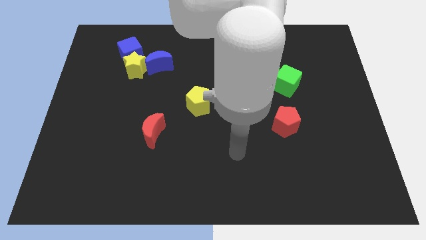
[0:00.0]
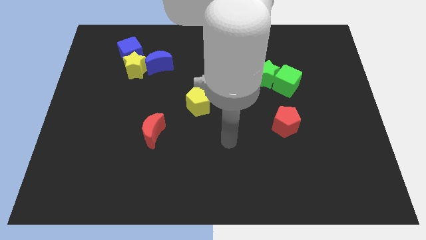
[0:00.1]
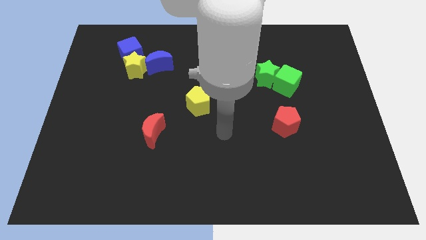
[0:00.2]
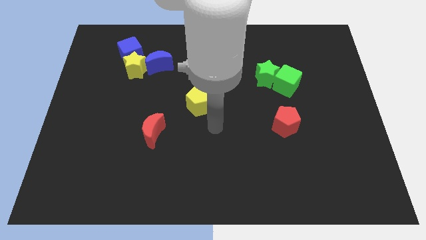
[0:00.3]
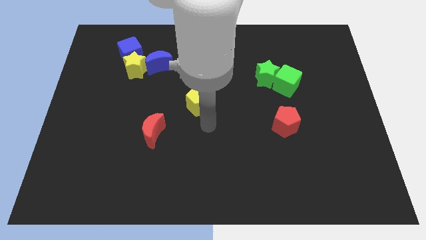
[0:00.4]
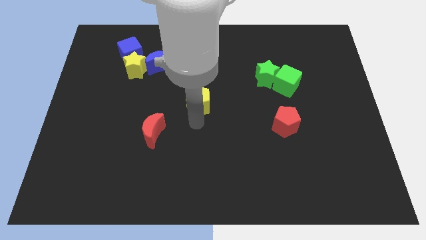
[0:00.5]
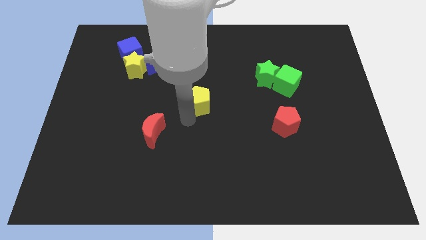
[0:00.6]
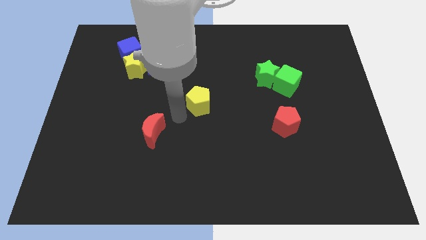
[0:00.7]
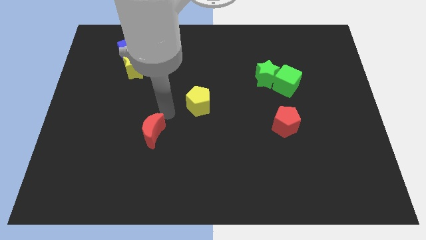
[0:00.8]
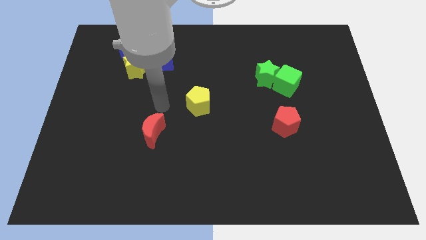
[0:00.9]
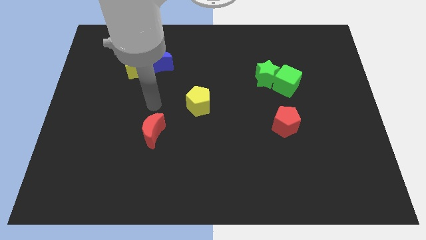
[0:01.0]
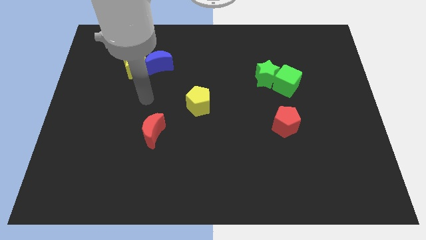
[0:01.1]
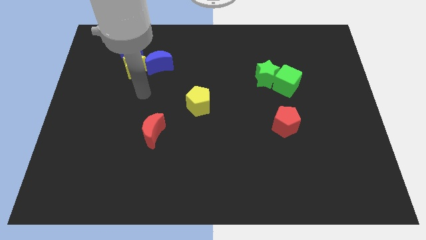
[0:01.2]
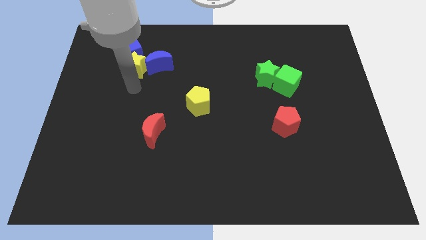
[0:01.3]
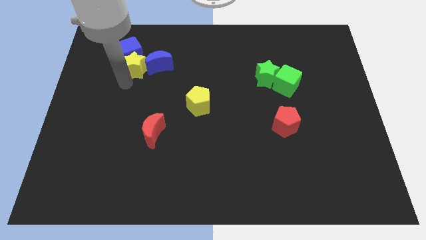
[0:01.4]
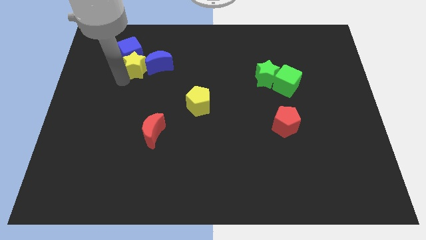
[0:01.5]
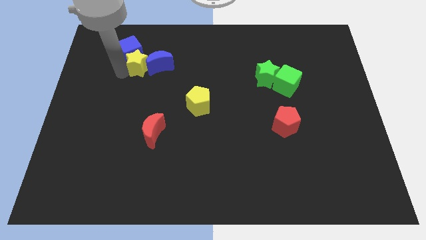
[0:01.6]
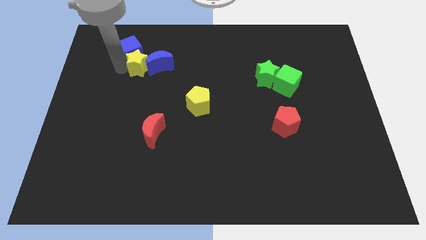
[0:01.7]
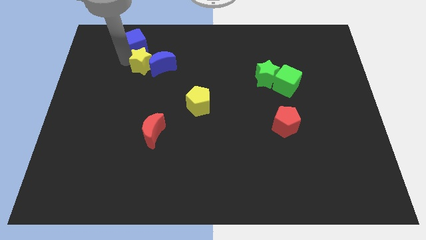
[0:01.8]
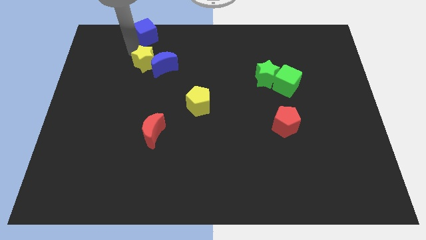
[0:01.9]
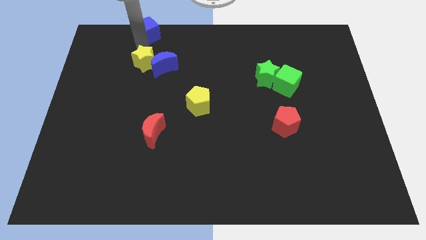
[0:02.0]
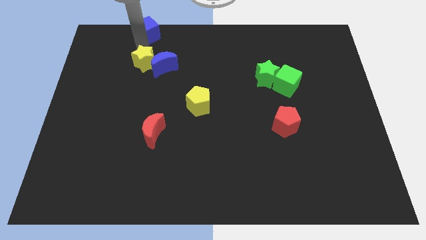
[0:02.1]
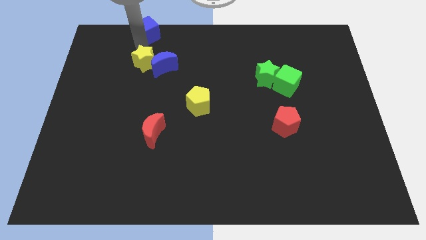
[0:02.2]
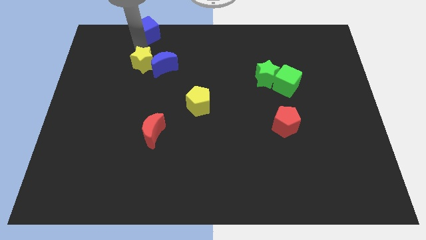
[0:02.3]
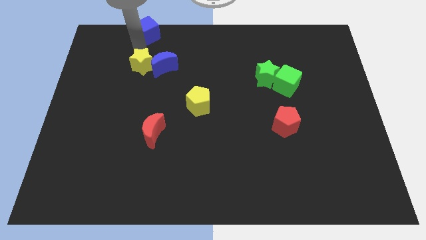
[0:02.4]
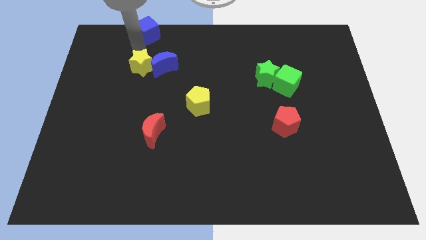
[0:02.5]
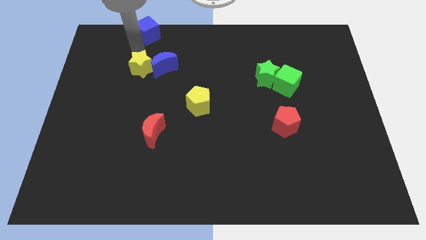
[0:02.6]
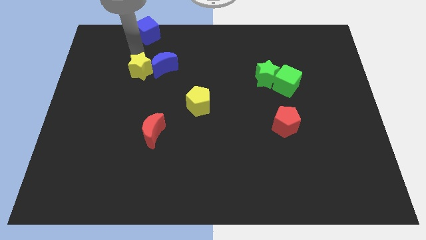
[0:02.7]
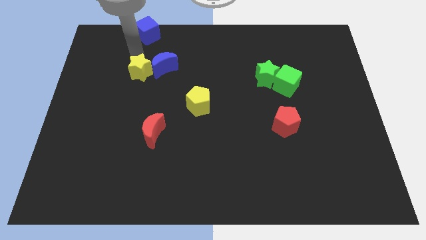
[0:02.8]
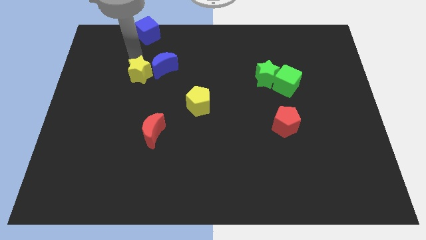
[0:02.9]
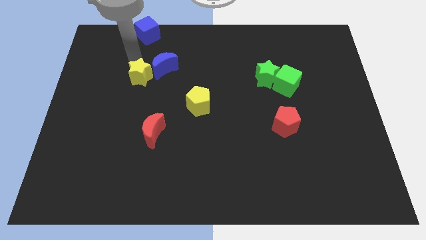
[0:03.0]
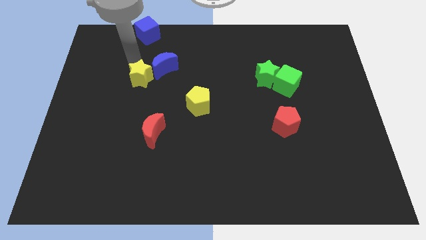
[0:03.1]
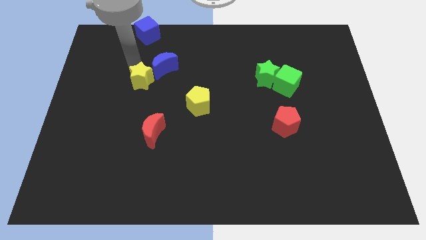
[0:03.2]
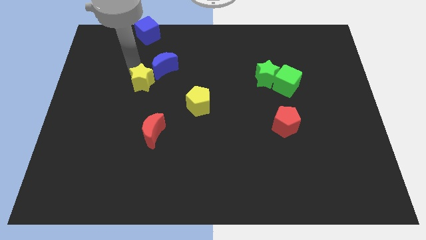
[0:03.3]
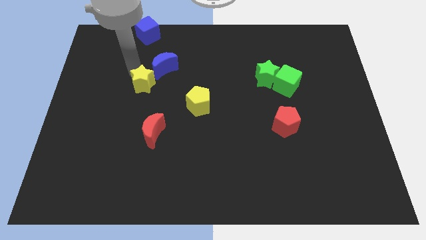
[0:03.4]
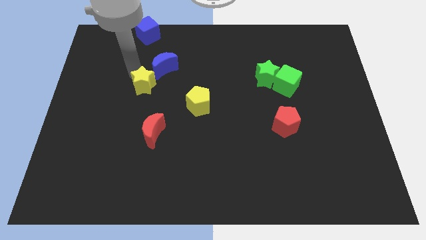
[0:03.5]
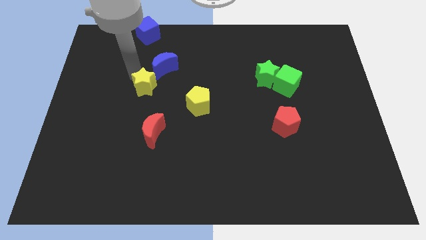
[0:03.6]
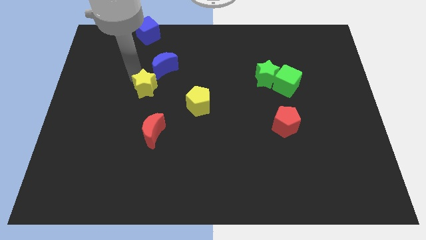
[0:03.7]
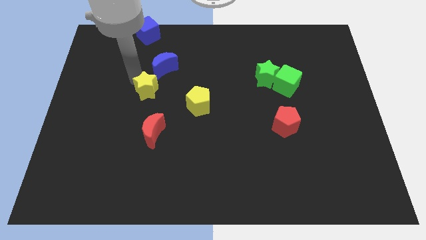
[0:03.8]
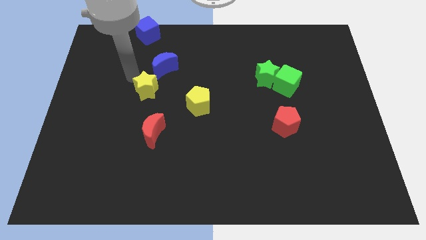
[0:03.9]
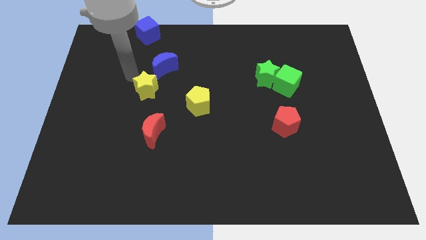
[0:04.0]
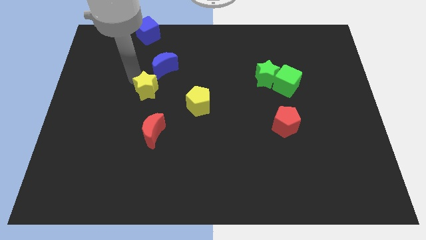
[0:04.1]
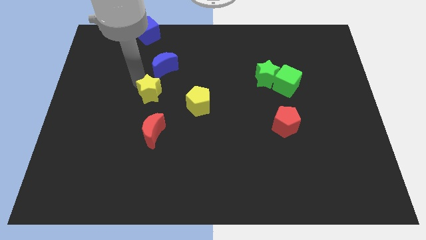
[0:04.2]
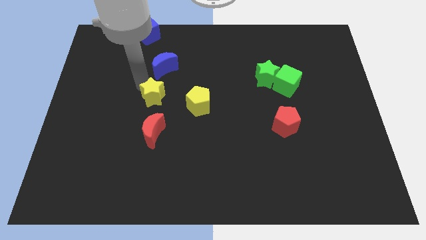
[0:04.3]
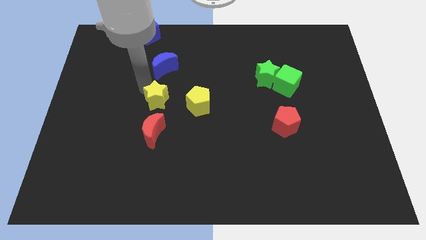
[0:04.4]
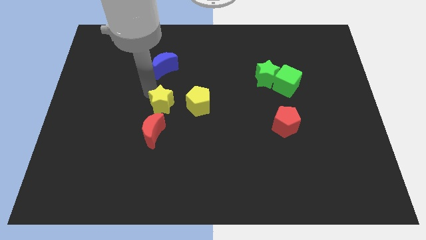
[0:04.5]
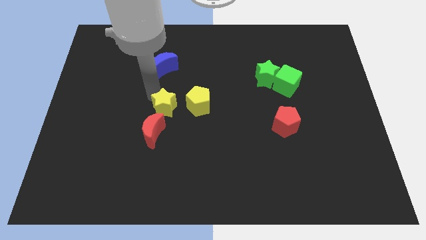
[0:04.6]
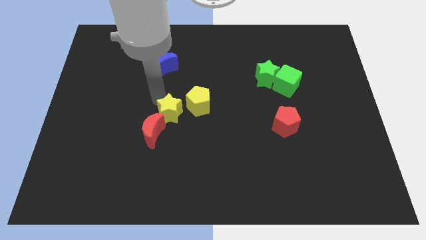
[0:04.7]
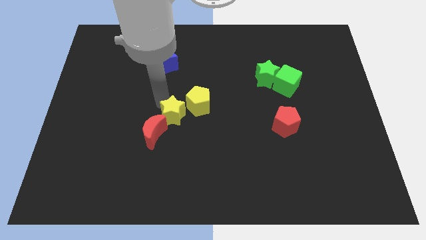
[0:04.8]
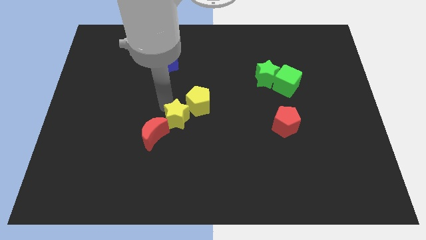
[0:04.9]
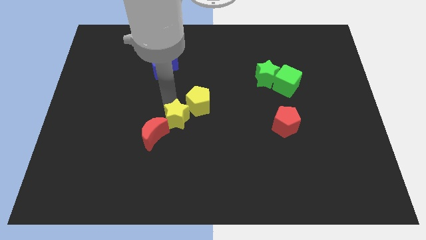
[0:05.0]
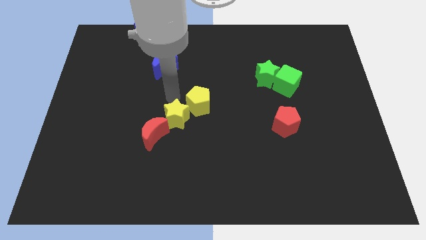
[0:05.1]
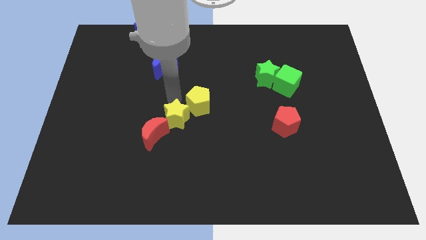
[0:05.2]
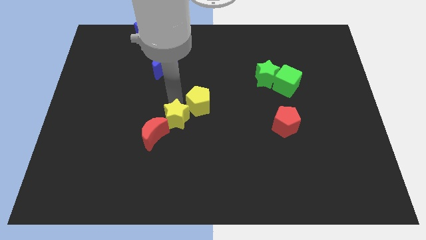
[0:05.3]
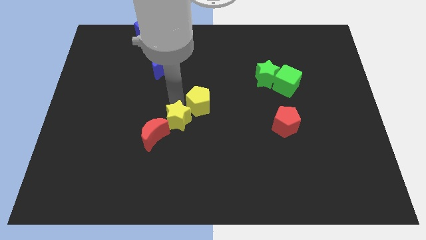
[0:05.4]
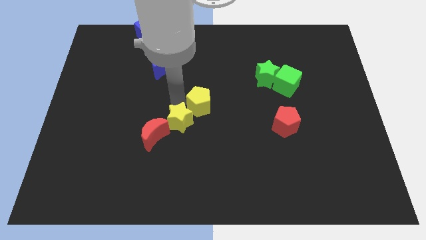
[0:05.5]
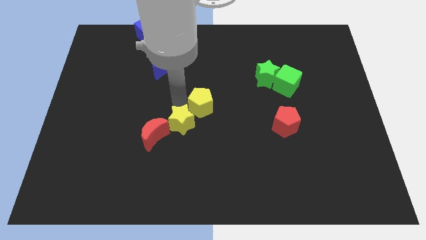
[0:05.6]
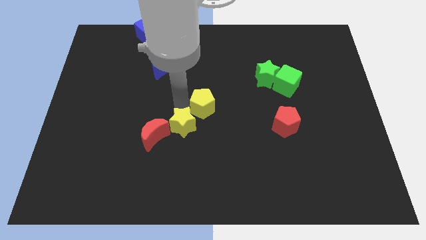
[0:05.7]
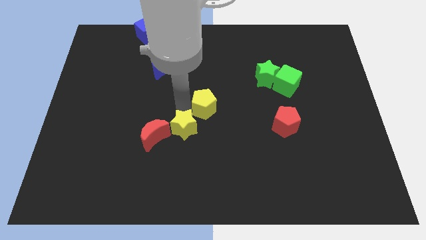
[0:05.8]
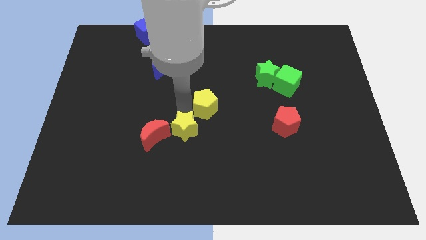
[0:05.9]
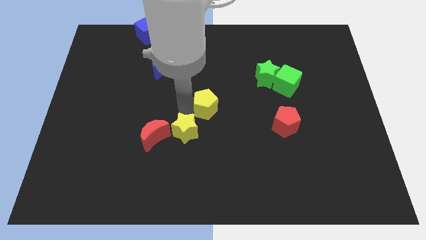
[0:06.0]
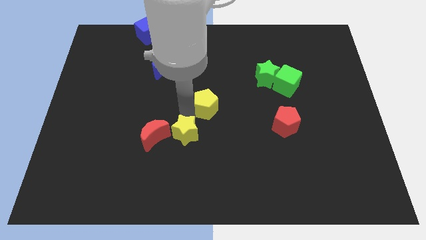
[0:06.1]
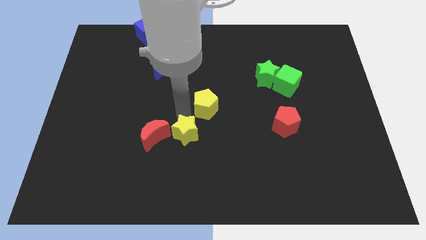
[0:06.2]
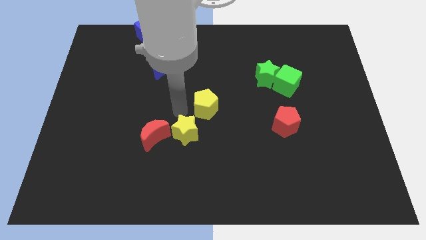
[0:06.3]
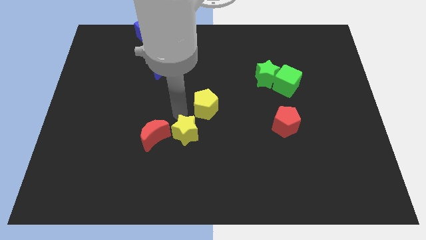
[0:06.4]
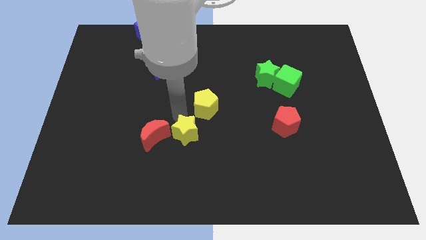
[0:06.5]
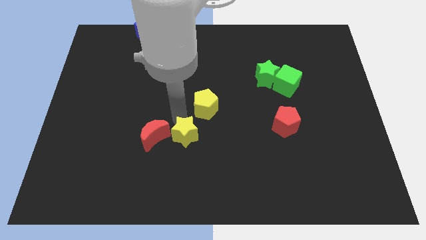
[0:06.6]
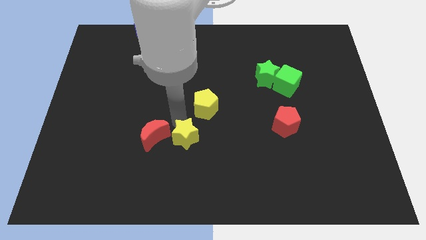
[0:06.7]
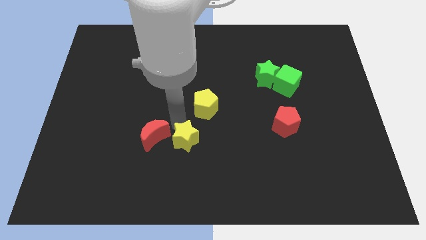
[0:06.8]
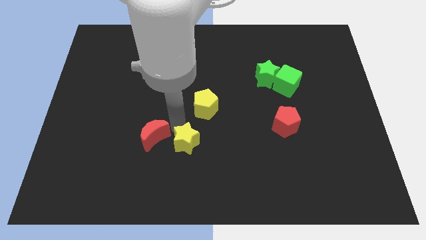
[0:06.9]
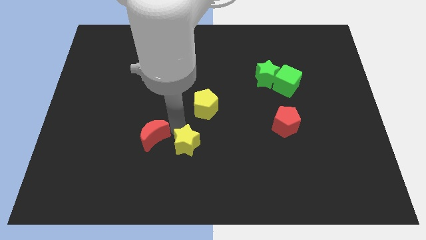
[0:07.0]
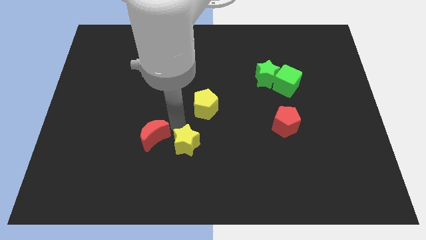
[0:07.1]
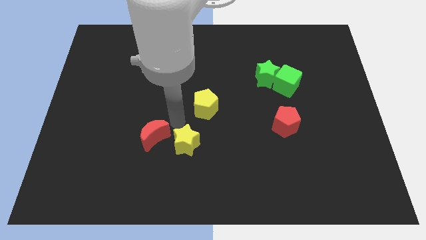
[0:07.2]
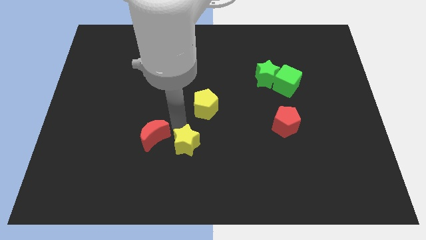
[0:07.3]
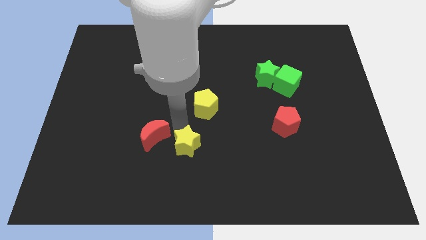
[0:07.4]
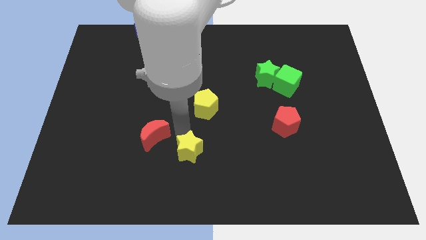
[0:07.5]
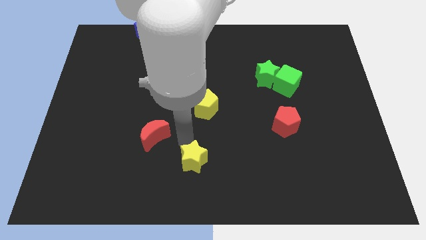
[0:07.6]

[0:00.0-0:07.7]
slide the yellow star to the bottom side
